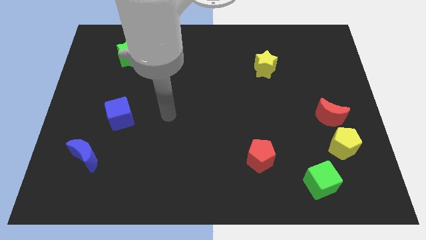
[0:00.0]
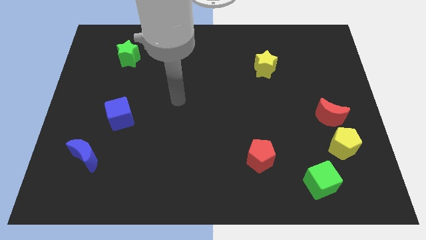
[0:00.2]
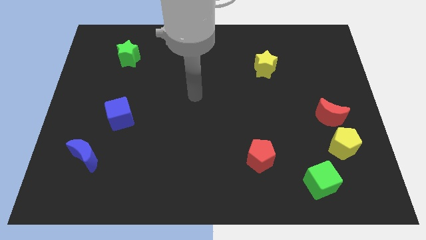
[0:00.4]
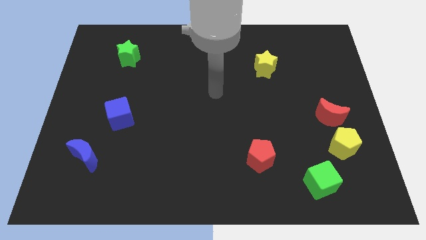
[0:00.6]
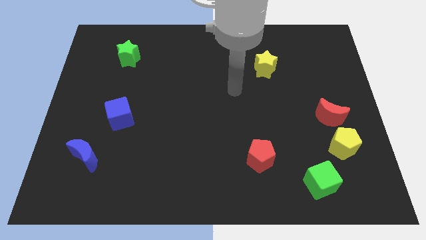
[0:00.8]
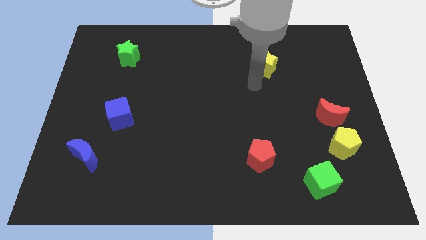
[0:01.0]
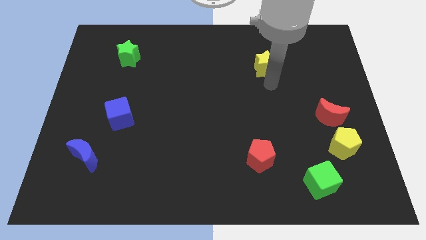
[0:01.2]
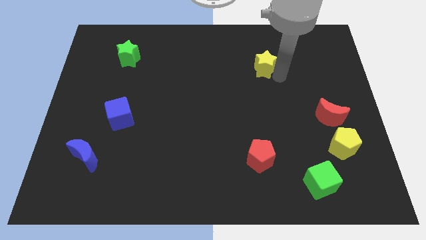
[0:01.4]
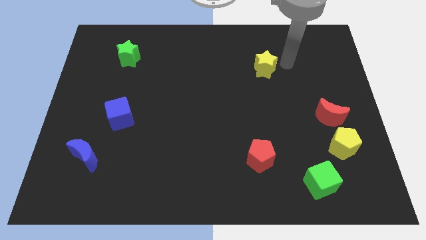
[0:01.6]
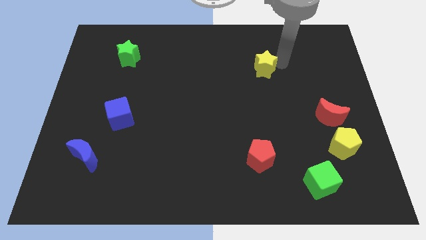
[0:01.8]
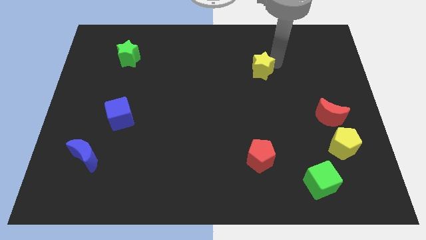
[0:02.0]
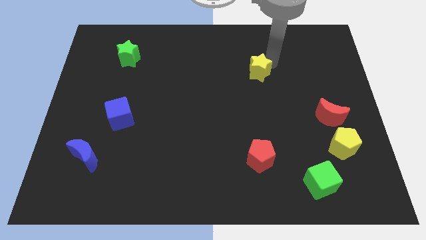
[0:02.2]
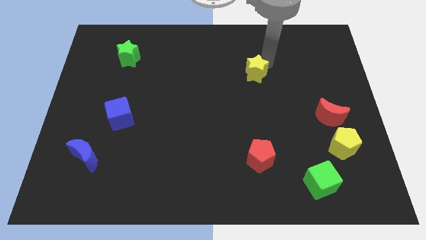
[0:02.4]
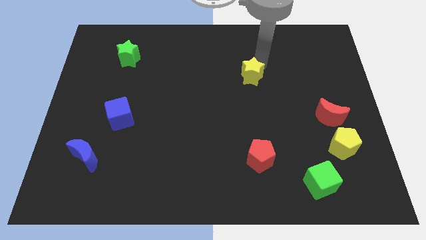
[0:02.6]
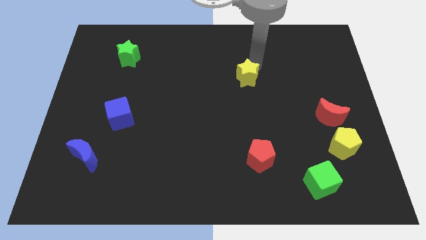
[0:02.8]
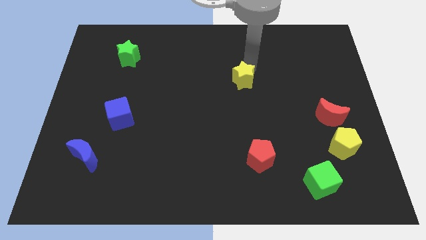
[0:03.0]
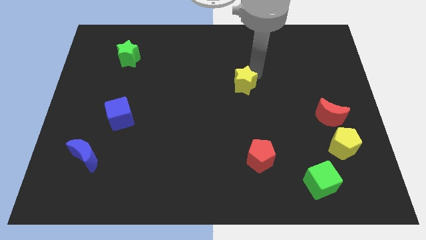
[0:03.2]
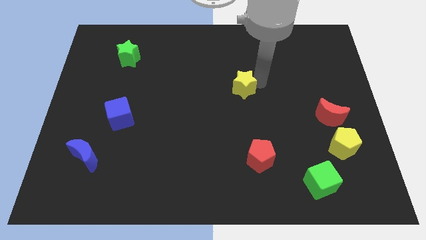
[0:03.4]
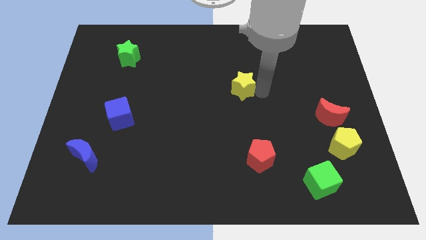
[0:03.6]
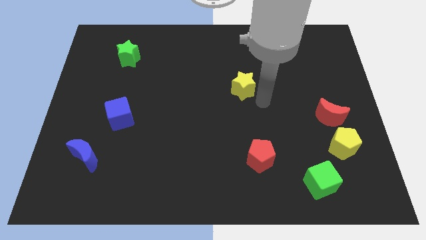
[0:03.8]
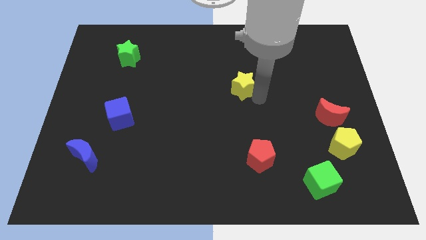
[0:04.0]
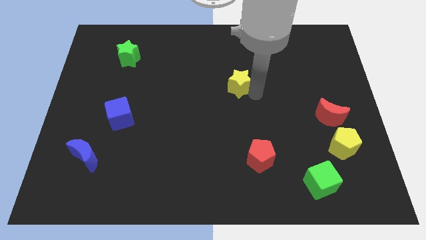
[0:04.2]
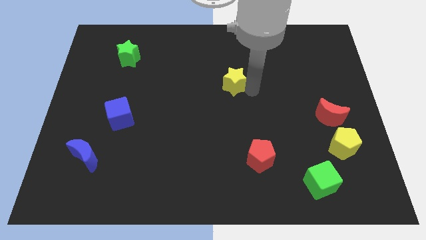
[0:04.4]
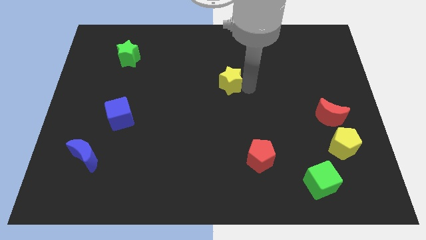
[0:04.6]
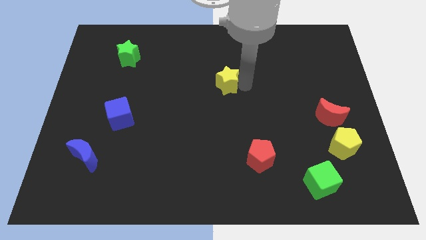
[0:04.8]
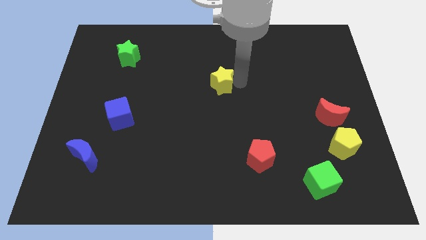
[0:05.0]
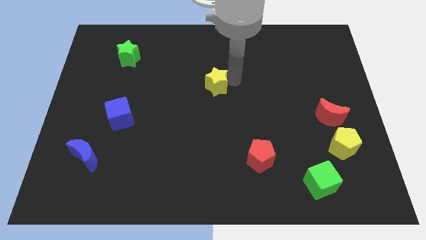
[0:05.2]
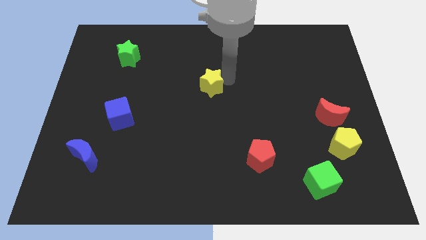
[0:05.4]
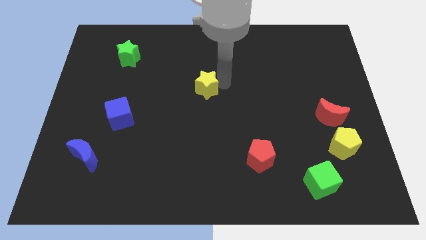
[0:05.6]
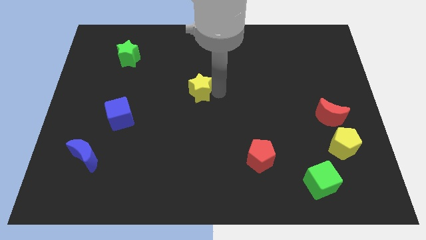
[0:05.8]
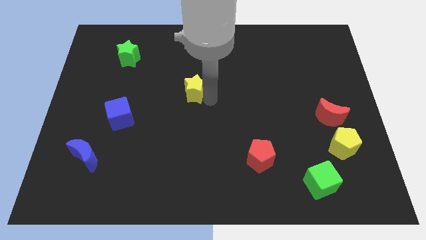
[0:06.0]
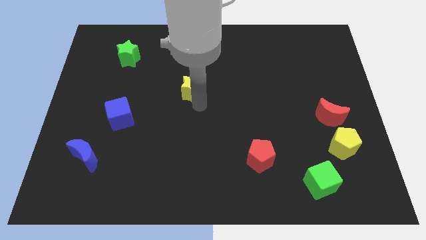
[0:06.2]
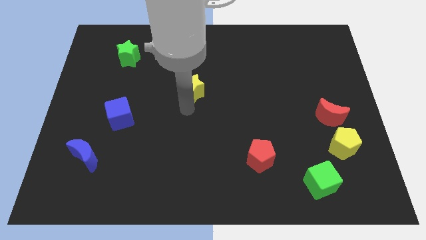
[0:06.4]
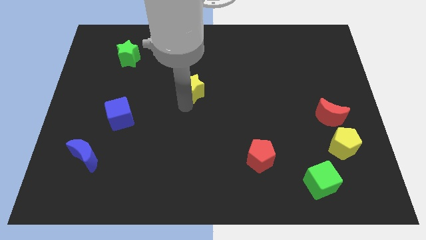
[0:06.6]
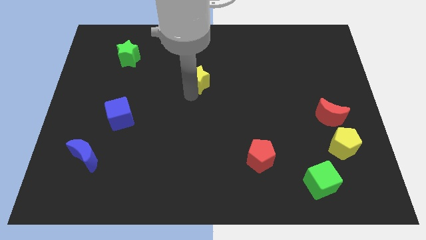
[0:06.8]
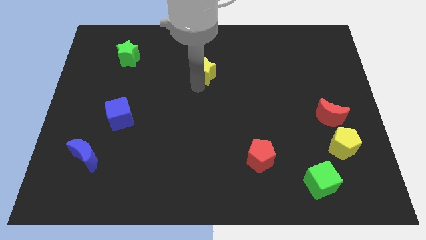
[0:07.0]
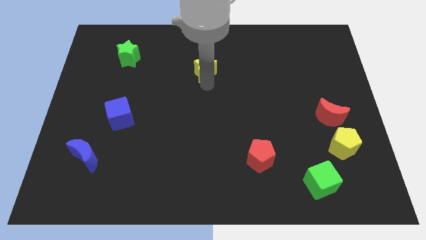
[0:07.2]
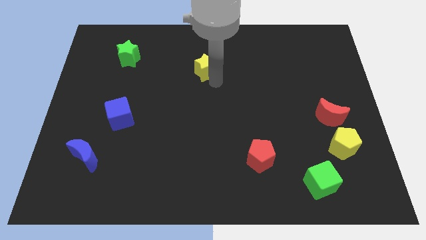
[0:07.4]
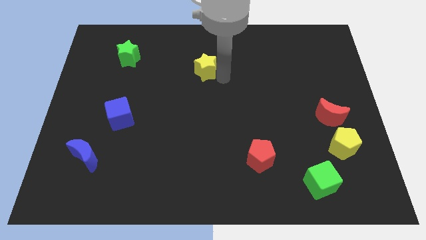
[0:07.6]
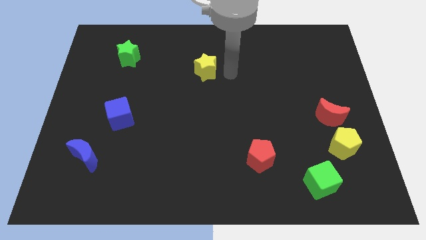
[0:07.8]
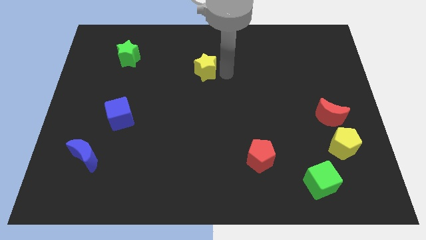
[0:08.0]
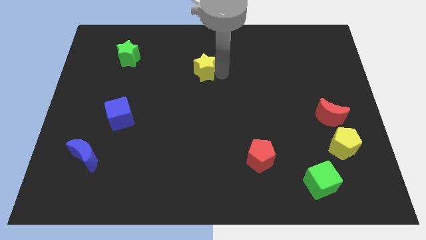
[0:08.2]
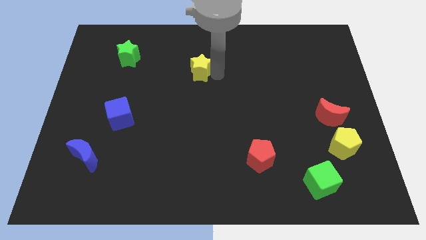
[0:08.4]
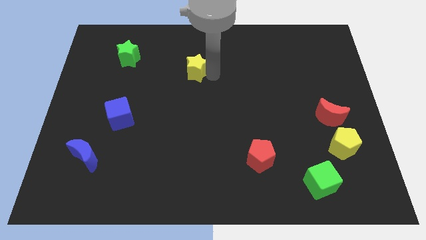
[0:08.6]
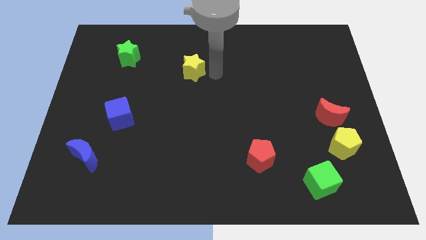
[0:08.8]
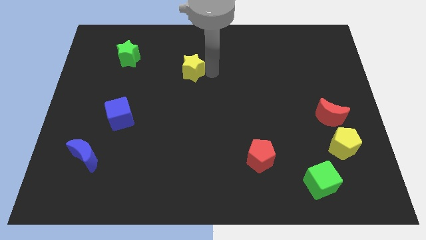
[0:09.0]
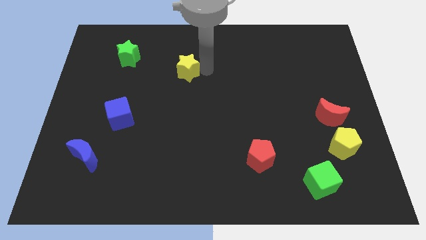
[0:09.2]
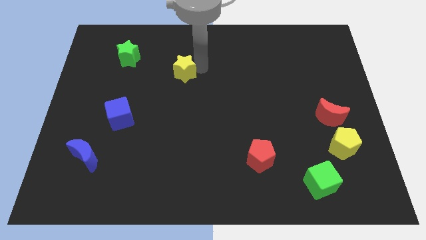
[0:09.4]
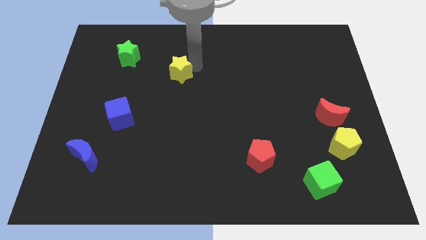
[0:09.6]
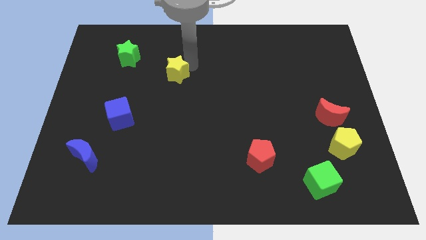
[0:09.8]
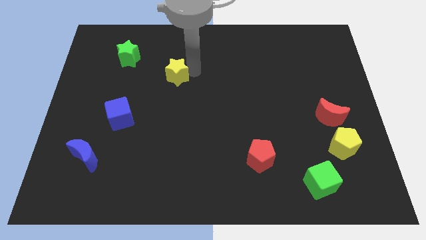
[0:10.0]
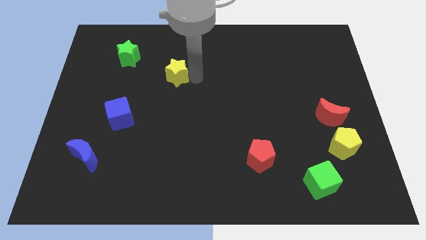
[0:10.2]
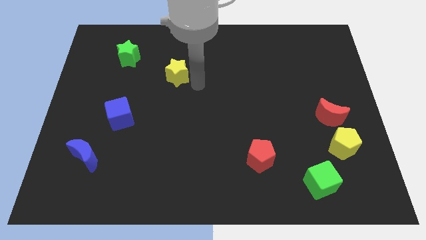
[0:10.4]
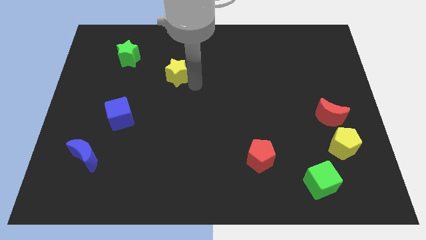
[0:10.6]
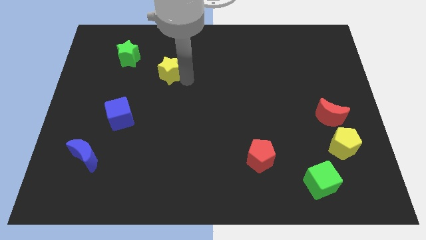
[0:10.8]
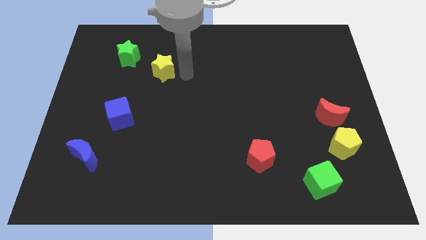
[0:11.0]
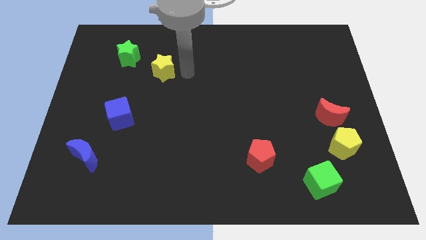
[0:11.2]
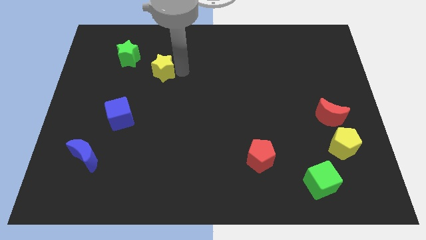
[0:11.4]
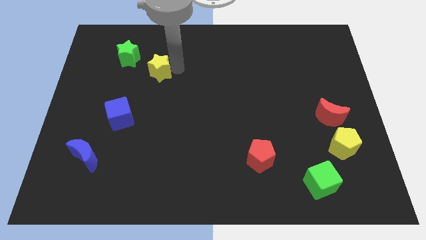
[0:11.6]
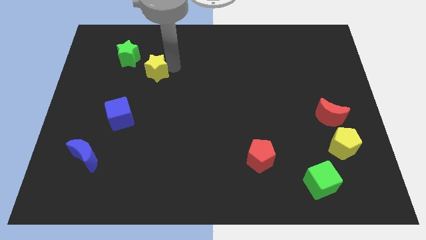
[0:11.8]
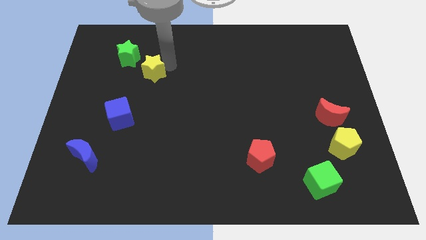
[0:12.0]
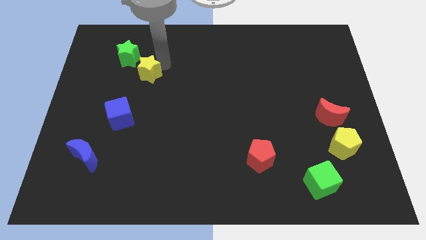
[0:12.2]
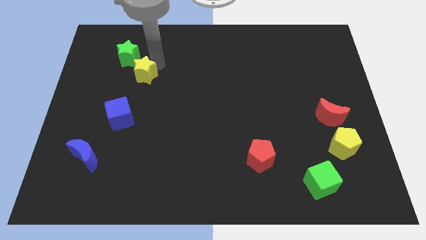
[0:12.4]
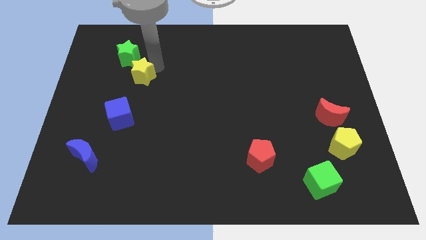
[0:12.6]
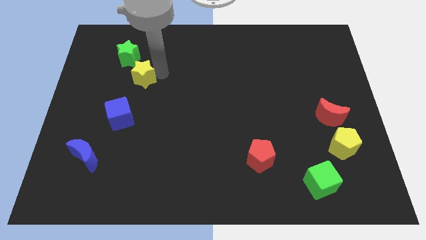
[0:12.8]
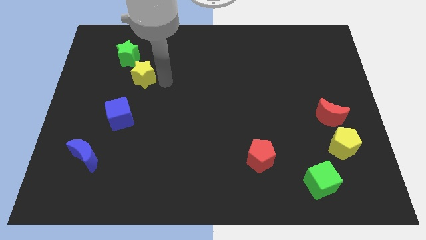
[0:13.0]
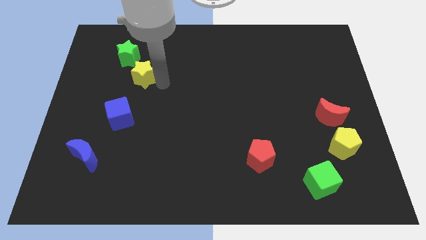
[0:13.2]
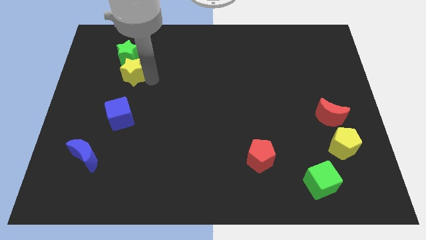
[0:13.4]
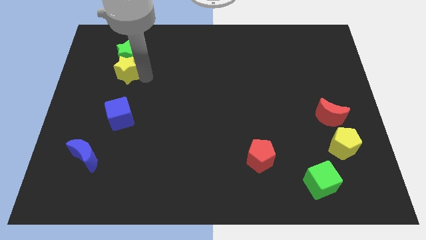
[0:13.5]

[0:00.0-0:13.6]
push the yellow star to the bottom left side of the green star

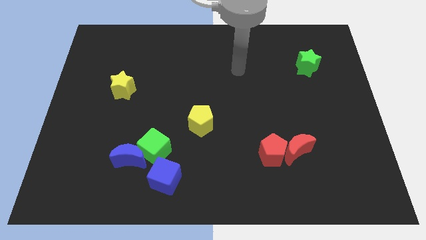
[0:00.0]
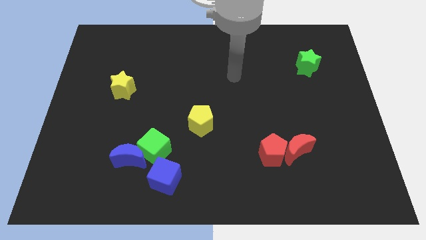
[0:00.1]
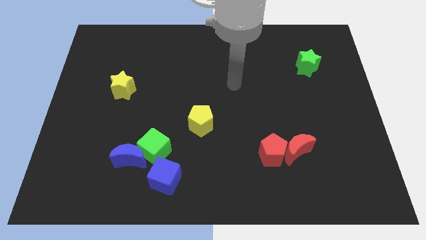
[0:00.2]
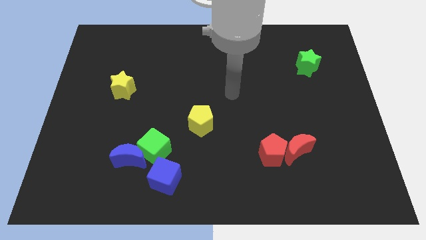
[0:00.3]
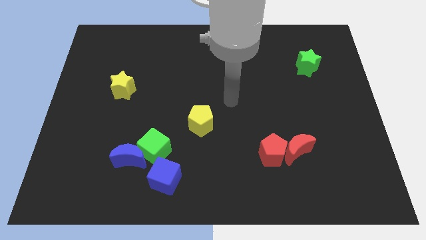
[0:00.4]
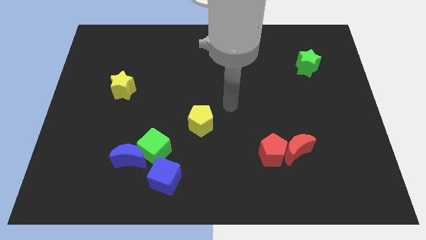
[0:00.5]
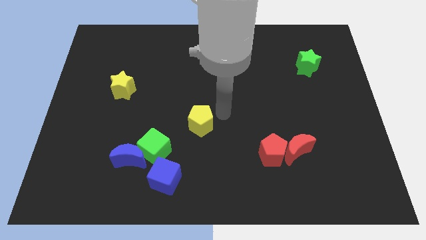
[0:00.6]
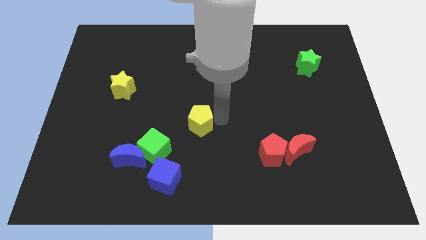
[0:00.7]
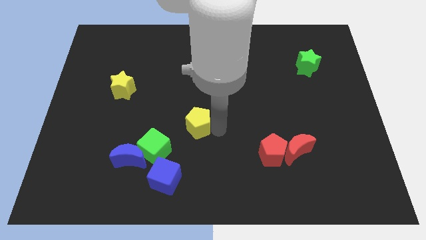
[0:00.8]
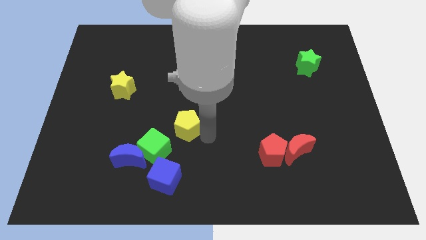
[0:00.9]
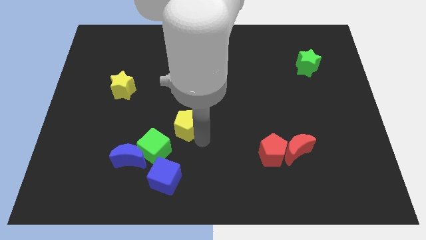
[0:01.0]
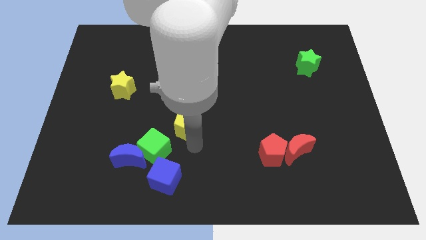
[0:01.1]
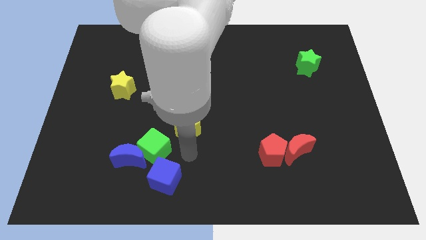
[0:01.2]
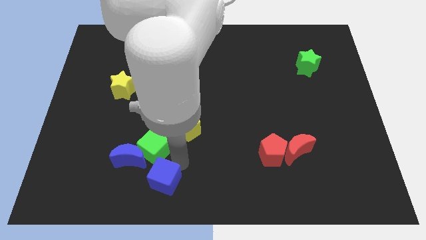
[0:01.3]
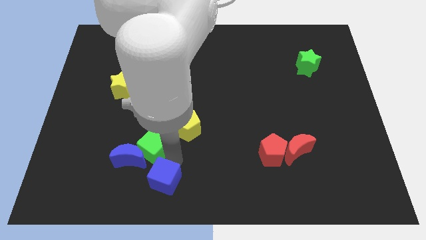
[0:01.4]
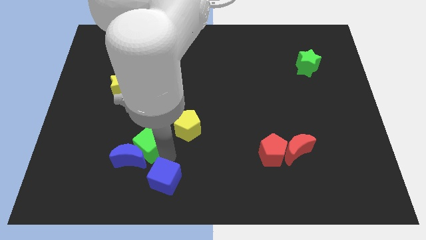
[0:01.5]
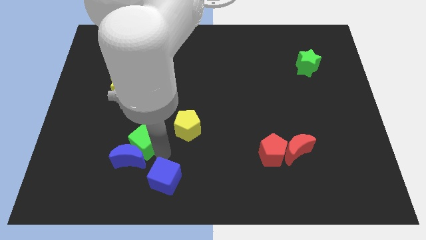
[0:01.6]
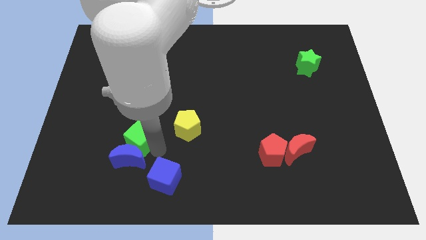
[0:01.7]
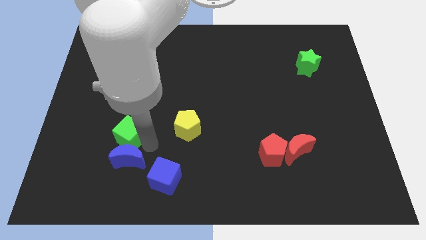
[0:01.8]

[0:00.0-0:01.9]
put the green cube to the bottom of the yellow star
